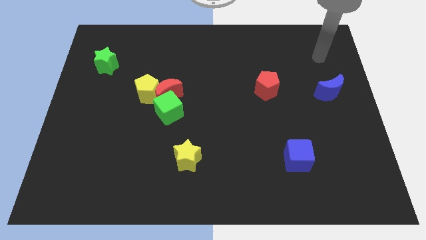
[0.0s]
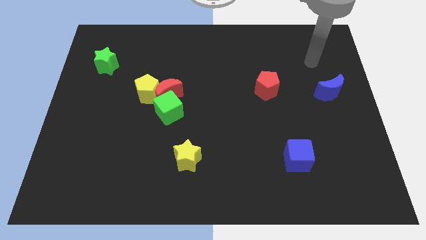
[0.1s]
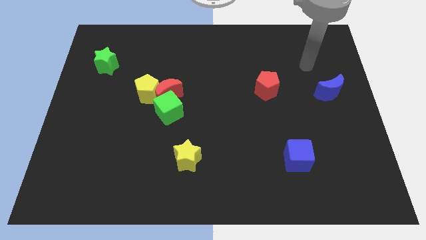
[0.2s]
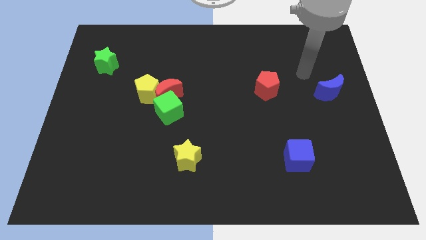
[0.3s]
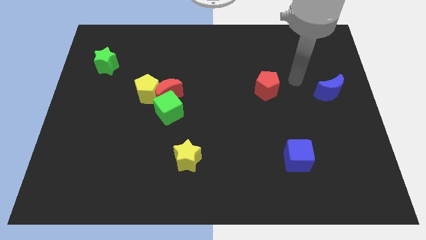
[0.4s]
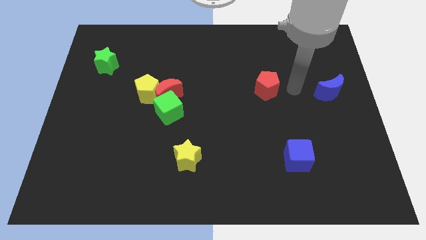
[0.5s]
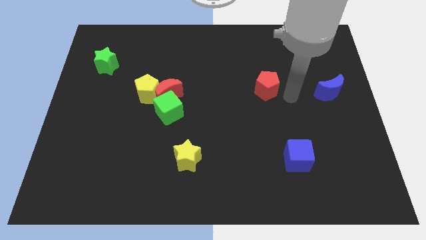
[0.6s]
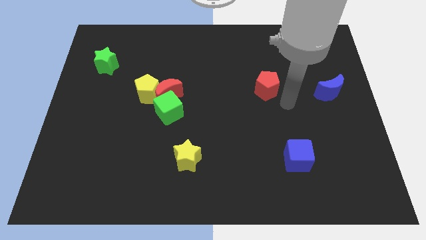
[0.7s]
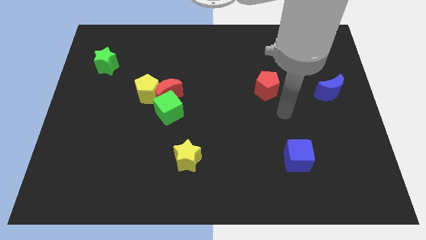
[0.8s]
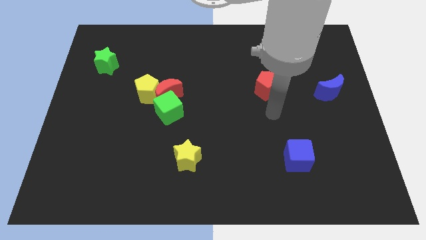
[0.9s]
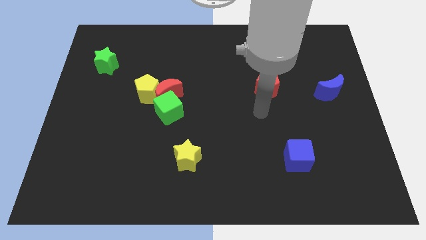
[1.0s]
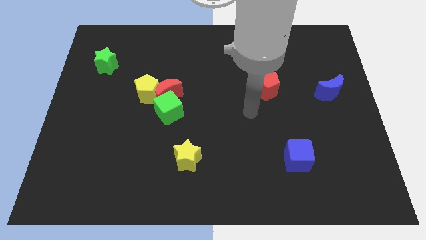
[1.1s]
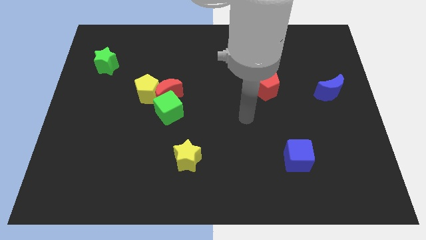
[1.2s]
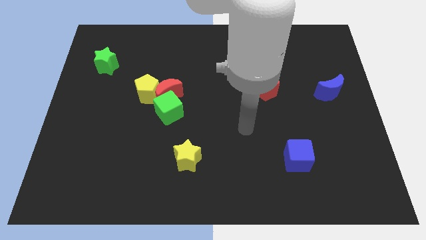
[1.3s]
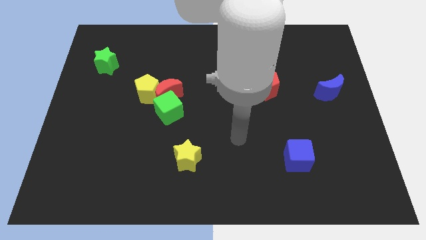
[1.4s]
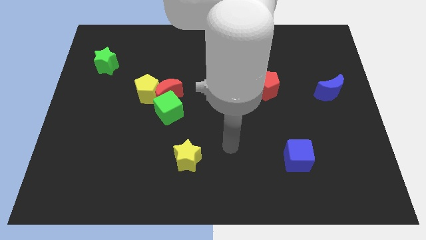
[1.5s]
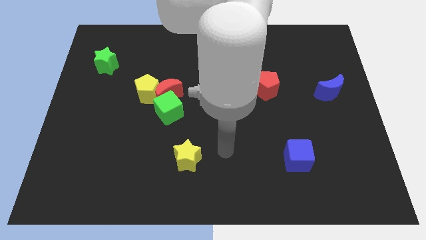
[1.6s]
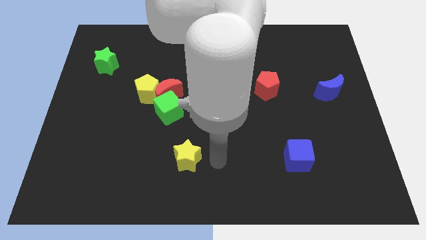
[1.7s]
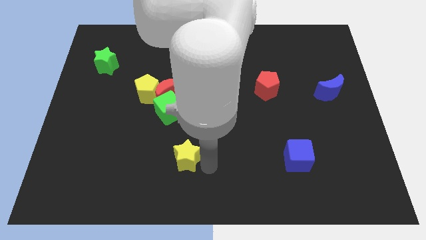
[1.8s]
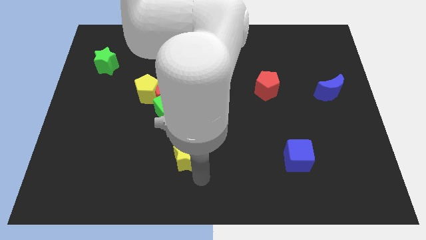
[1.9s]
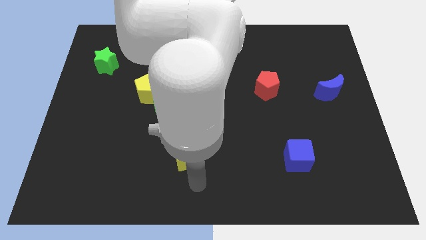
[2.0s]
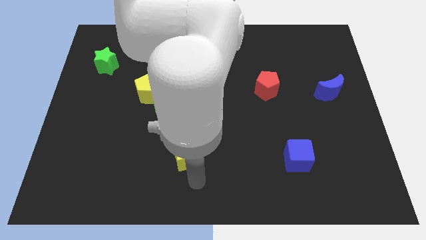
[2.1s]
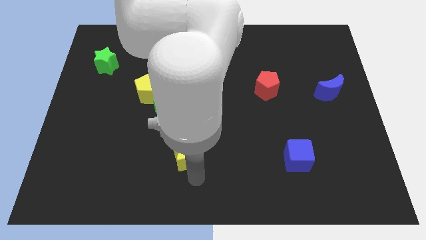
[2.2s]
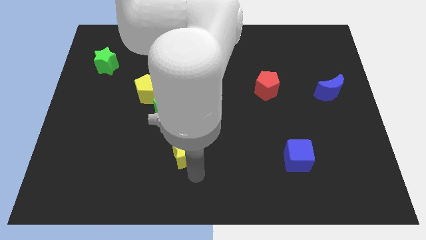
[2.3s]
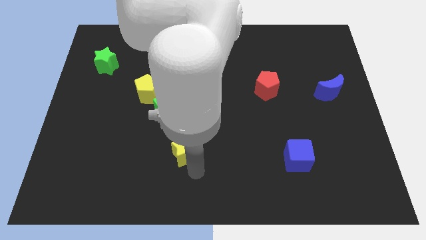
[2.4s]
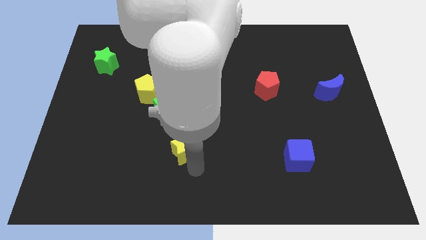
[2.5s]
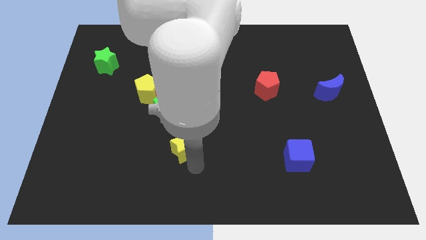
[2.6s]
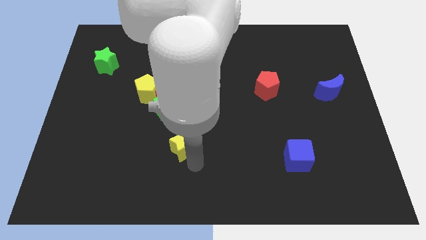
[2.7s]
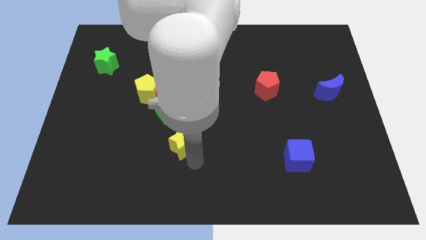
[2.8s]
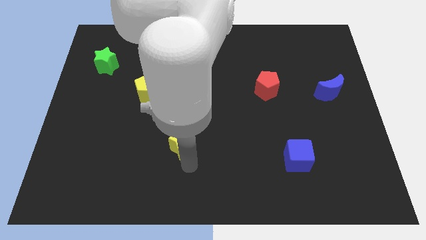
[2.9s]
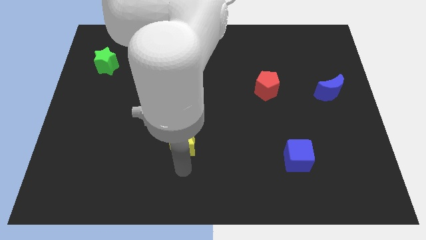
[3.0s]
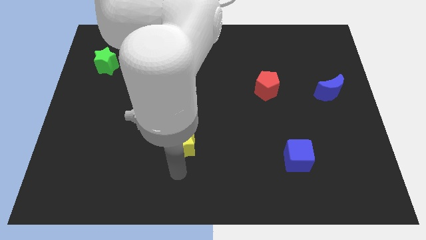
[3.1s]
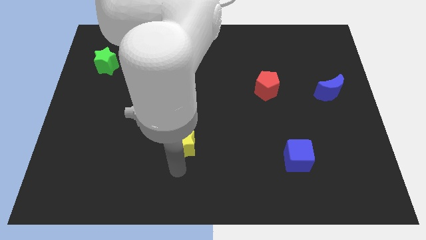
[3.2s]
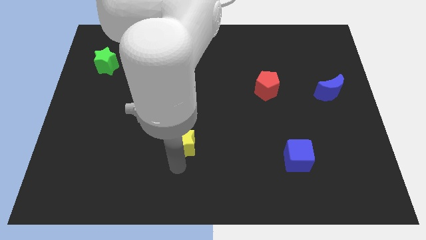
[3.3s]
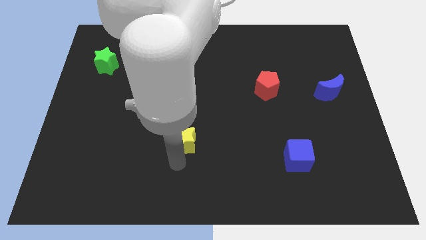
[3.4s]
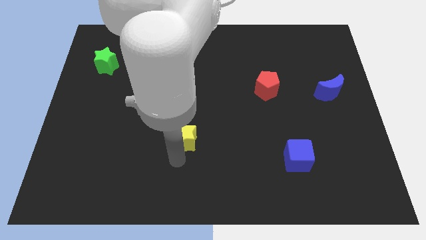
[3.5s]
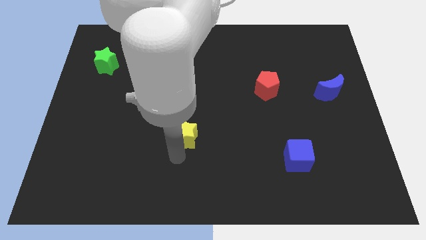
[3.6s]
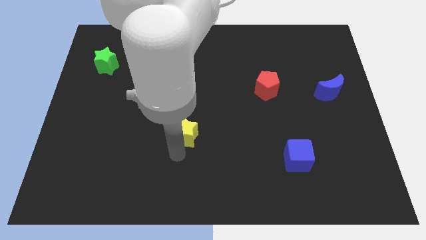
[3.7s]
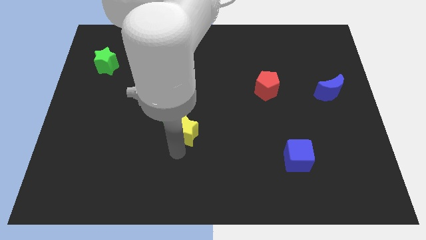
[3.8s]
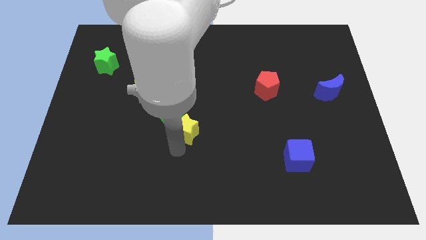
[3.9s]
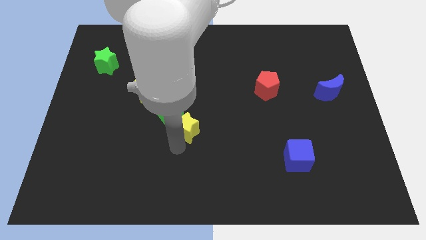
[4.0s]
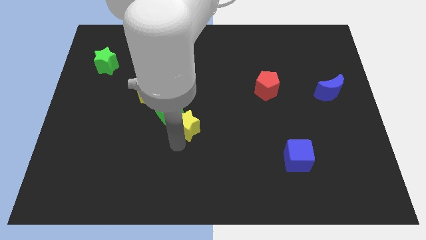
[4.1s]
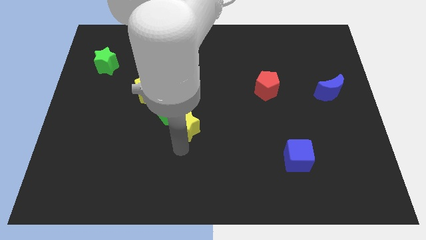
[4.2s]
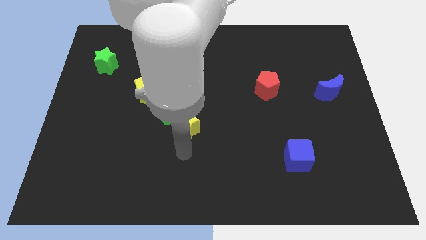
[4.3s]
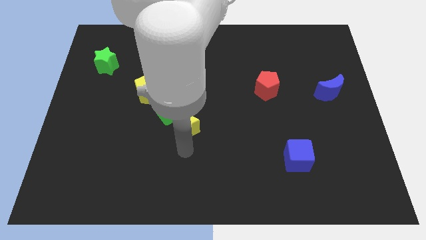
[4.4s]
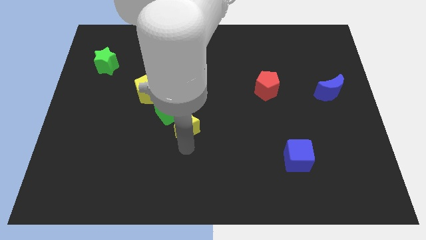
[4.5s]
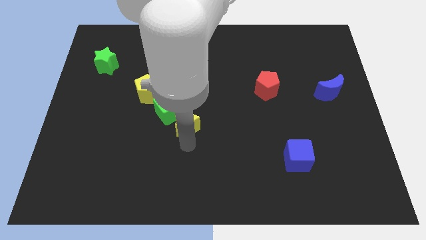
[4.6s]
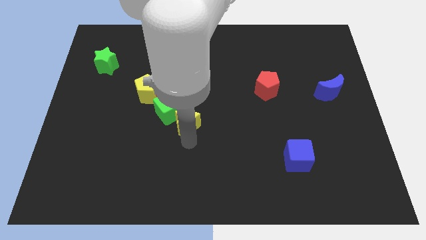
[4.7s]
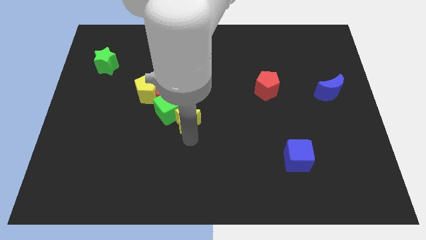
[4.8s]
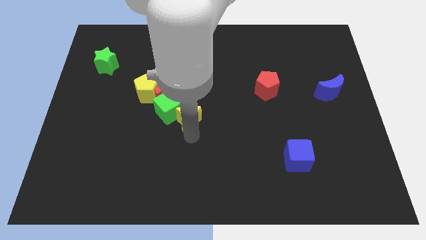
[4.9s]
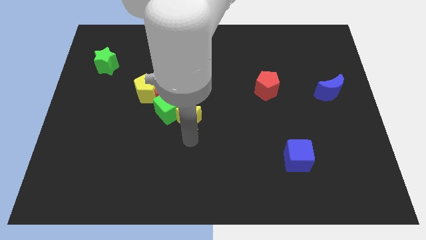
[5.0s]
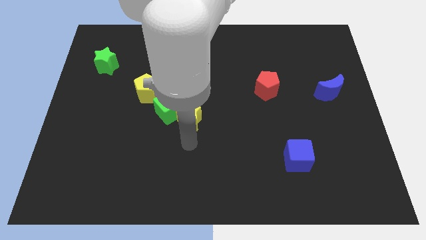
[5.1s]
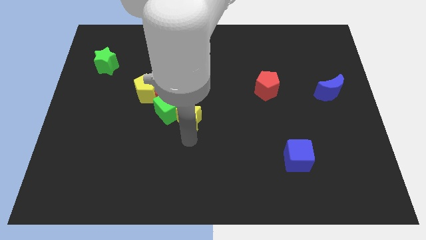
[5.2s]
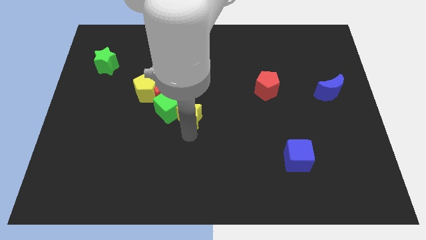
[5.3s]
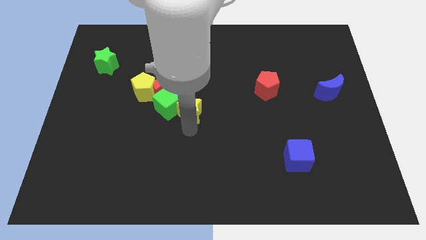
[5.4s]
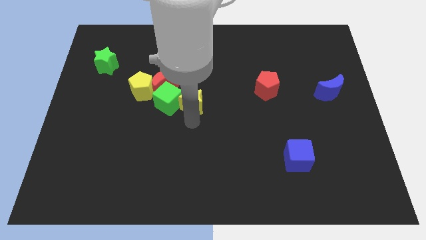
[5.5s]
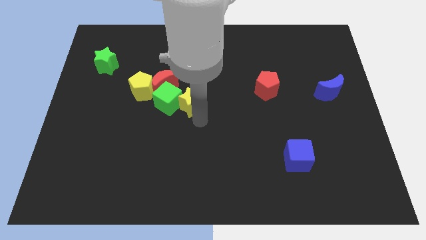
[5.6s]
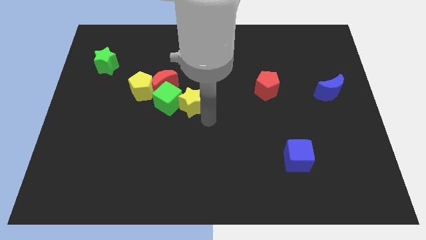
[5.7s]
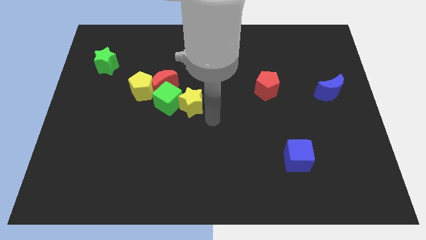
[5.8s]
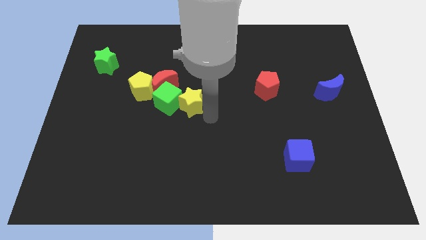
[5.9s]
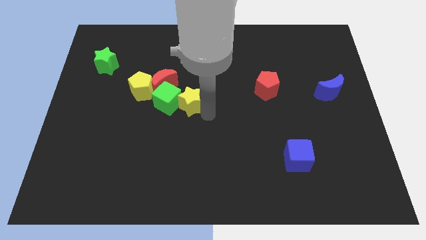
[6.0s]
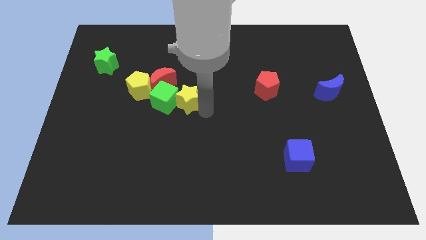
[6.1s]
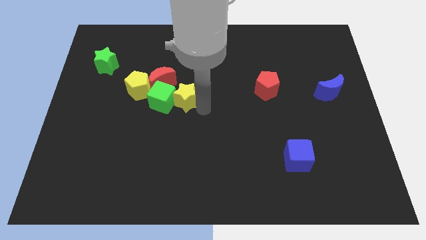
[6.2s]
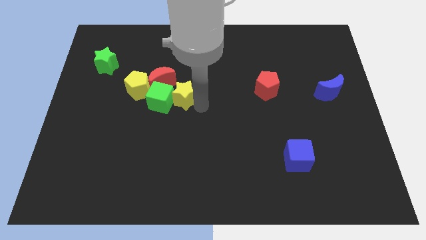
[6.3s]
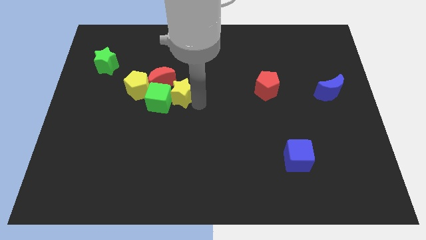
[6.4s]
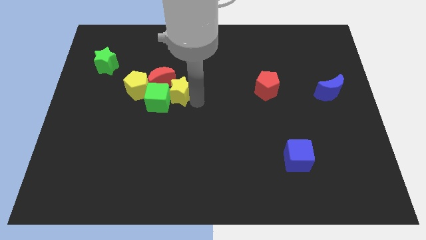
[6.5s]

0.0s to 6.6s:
put the yellow star close to the red moon
